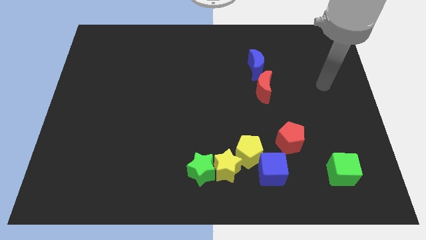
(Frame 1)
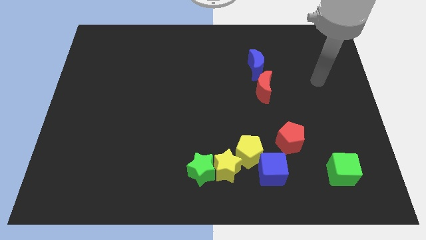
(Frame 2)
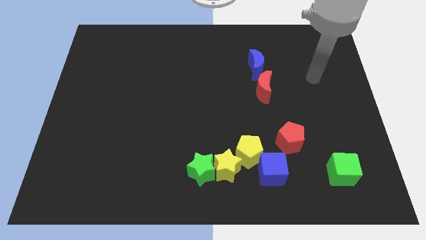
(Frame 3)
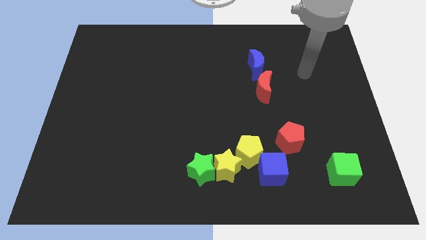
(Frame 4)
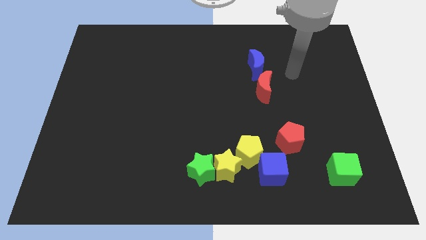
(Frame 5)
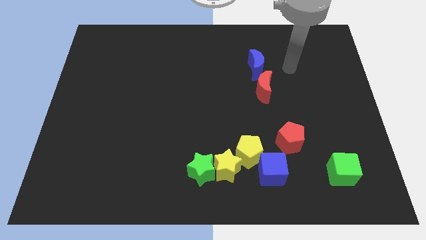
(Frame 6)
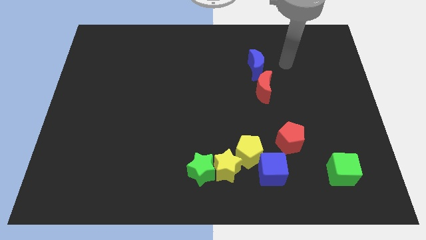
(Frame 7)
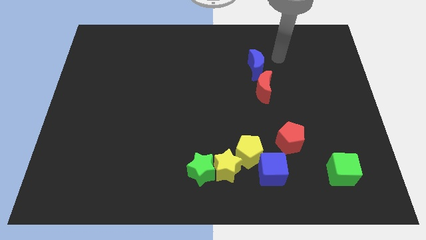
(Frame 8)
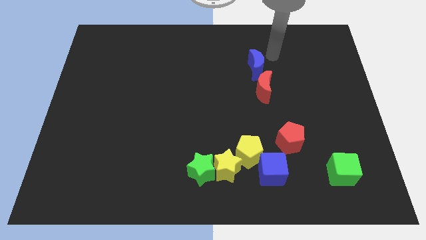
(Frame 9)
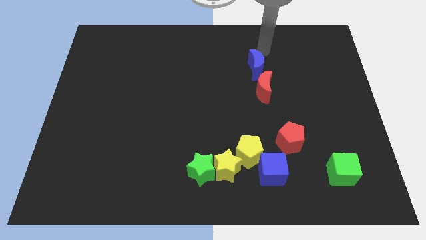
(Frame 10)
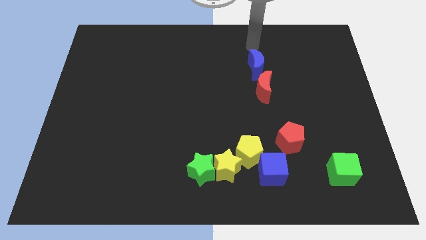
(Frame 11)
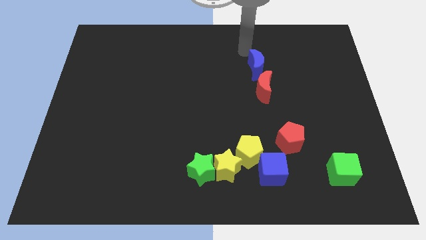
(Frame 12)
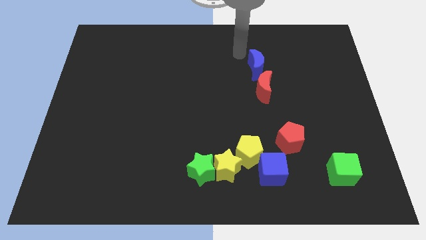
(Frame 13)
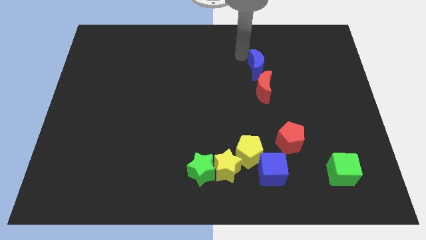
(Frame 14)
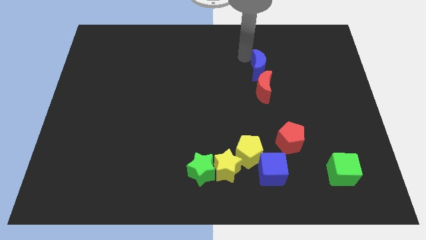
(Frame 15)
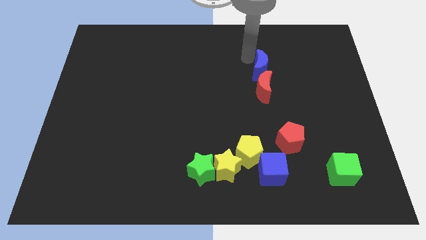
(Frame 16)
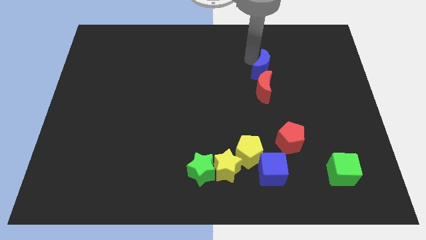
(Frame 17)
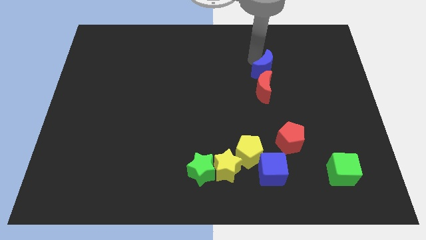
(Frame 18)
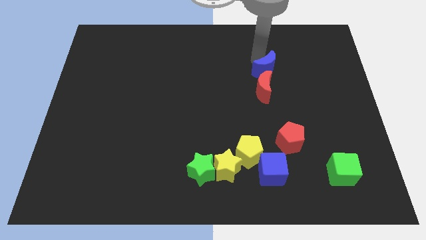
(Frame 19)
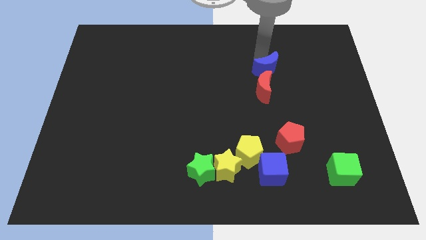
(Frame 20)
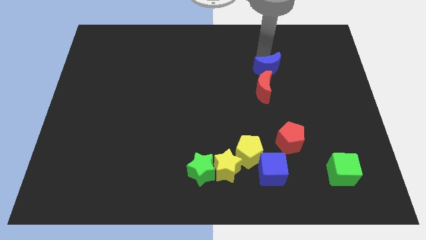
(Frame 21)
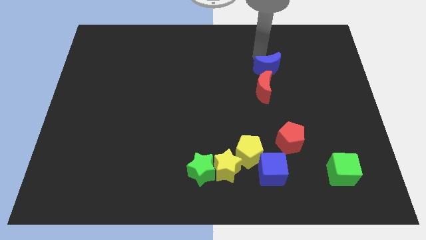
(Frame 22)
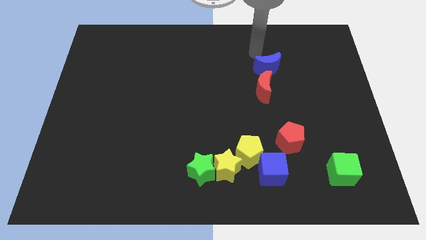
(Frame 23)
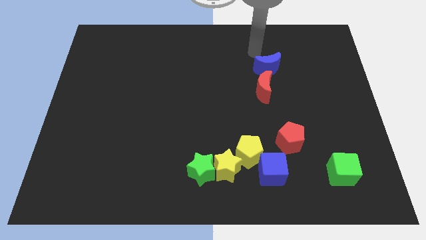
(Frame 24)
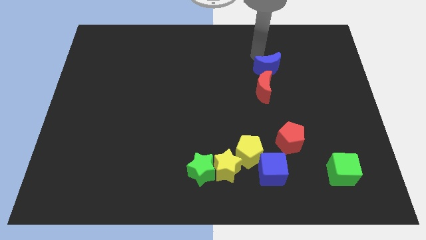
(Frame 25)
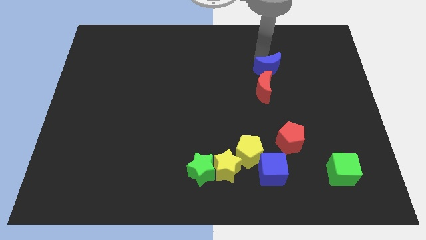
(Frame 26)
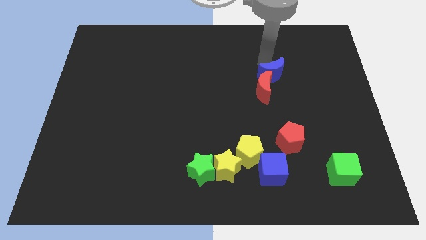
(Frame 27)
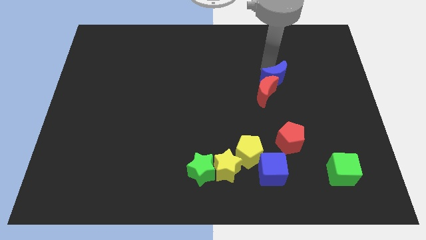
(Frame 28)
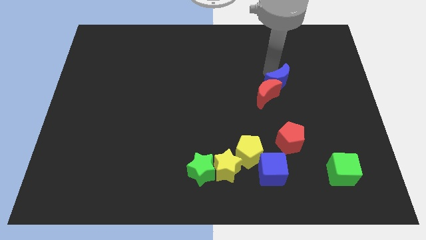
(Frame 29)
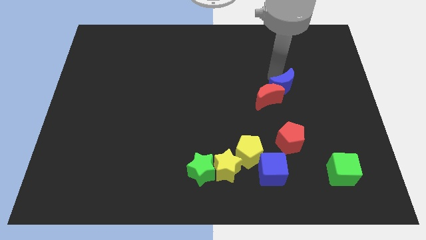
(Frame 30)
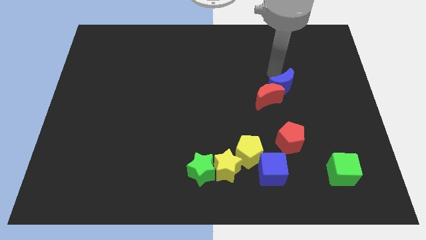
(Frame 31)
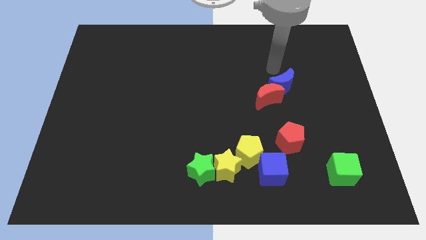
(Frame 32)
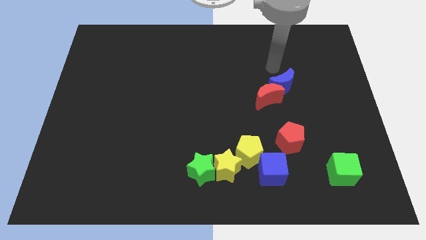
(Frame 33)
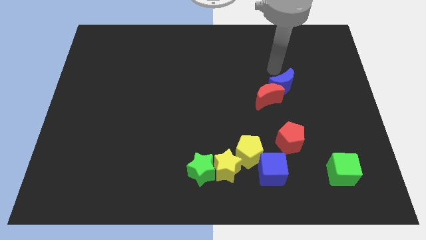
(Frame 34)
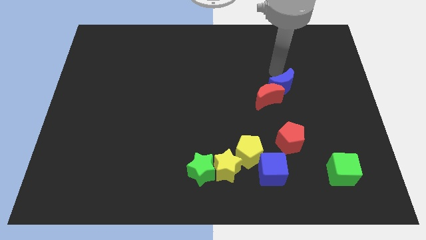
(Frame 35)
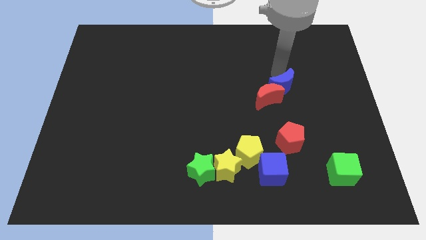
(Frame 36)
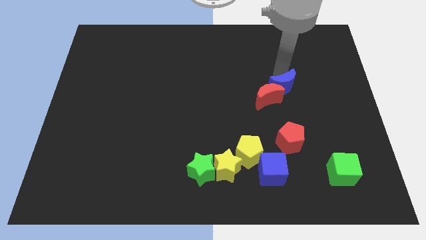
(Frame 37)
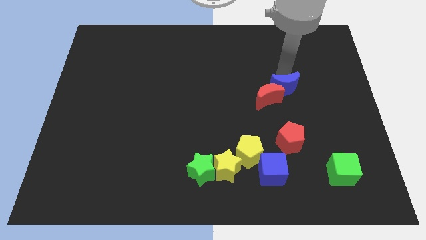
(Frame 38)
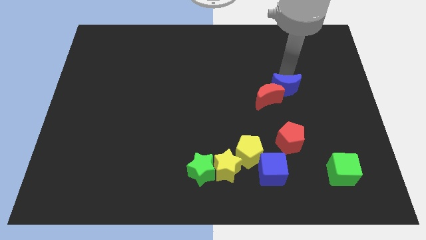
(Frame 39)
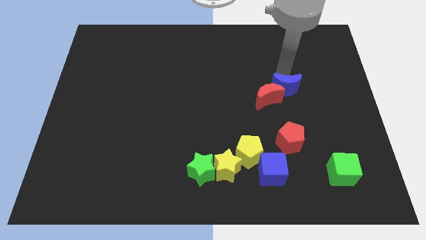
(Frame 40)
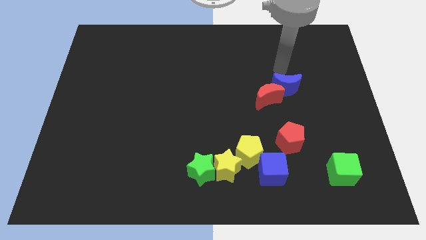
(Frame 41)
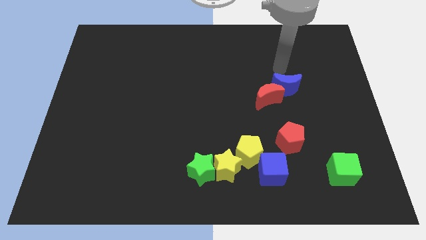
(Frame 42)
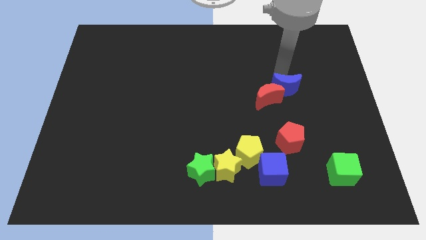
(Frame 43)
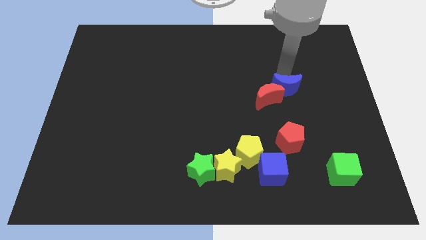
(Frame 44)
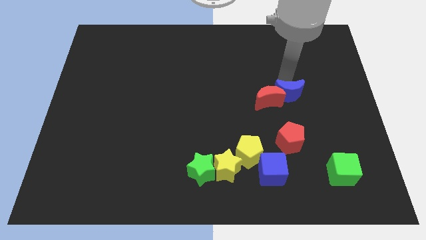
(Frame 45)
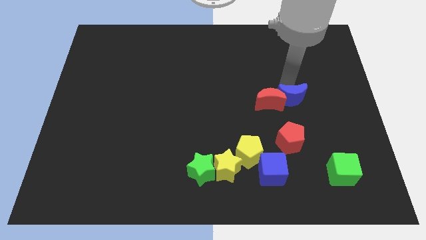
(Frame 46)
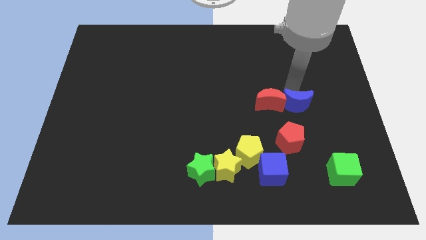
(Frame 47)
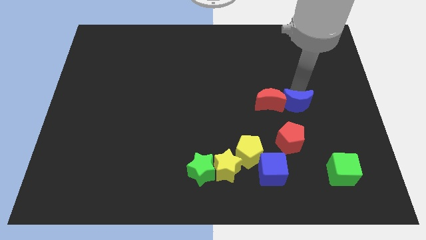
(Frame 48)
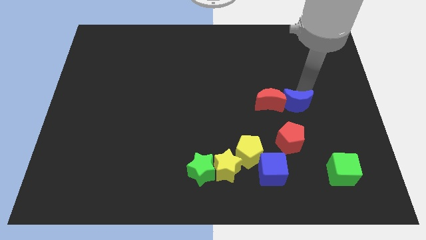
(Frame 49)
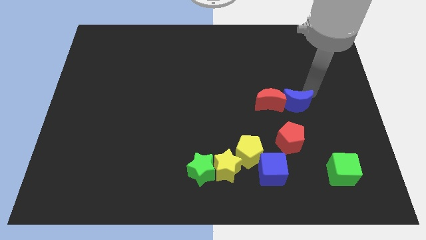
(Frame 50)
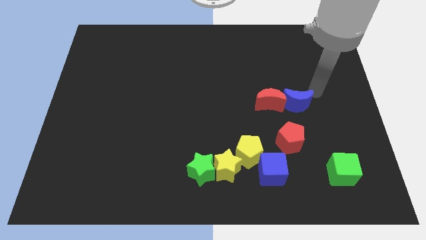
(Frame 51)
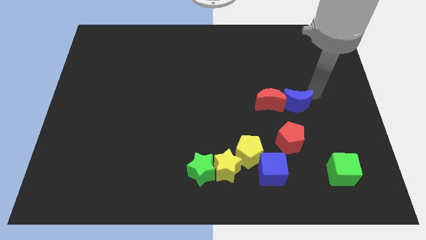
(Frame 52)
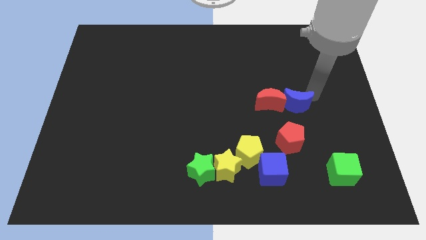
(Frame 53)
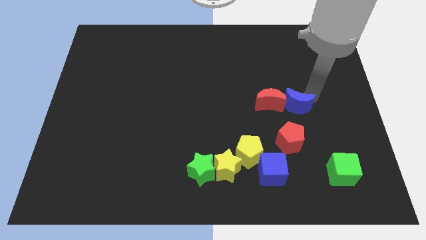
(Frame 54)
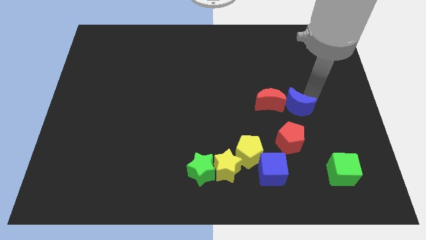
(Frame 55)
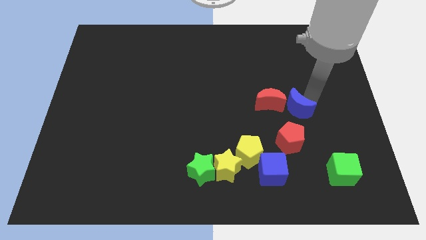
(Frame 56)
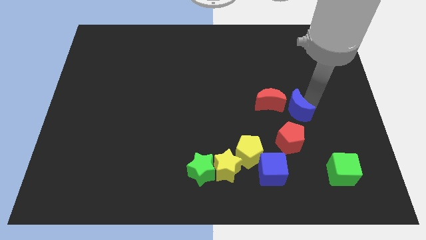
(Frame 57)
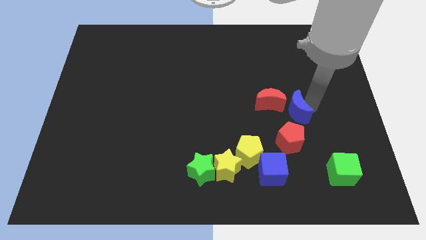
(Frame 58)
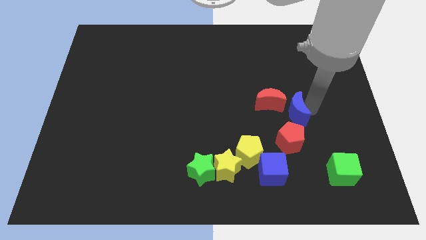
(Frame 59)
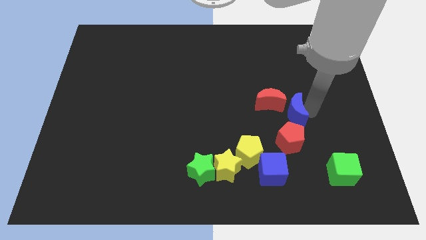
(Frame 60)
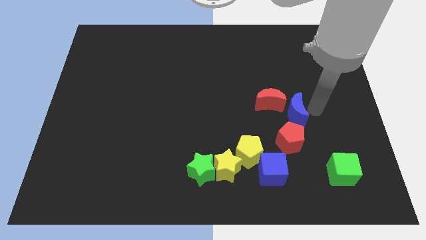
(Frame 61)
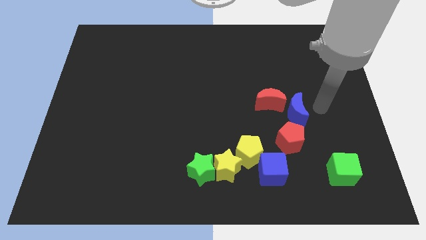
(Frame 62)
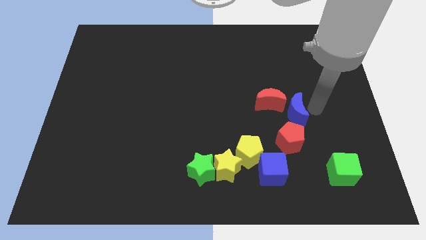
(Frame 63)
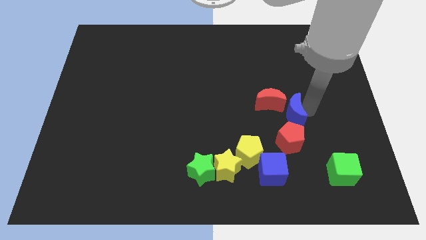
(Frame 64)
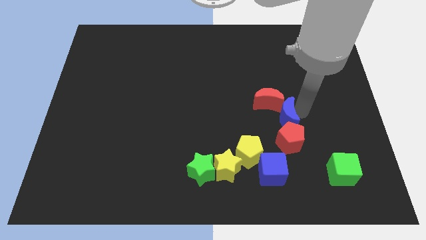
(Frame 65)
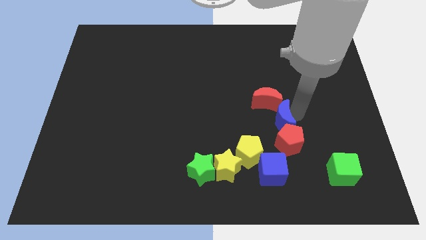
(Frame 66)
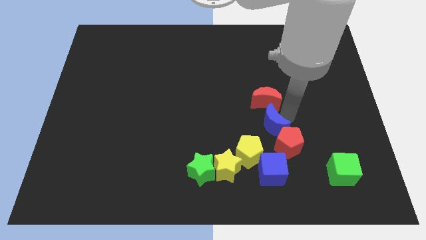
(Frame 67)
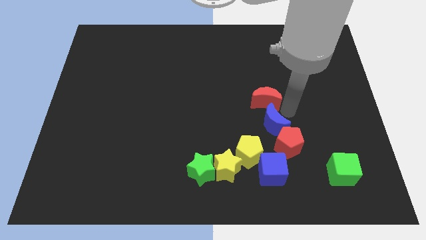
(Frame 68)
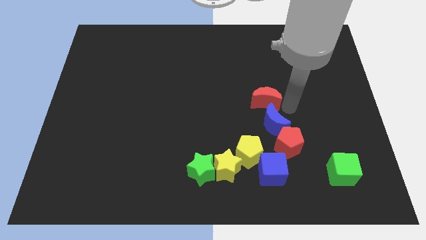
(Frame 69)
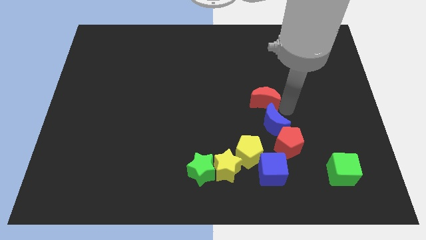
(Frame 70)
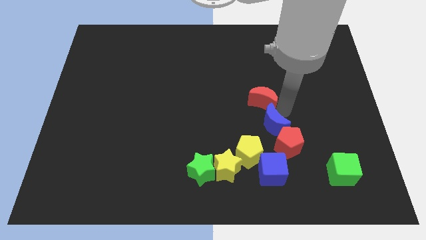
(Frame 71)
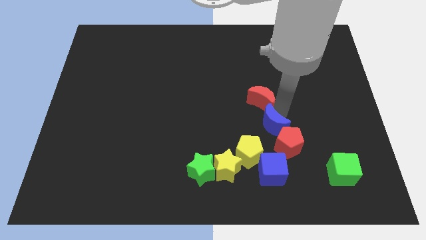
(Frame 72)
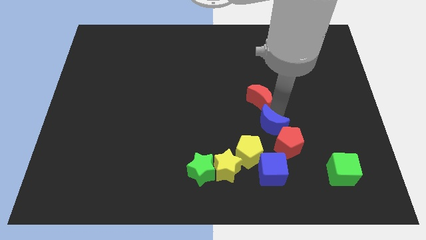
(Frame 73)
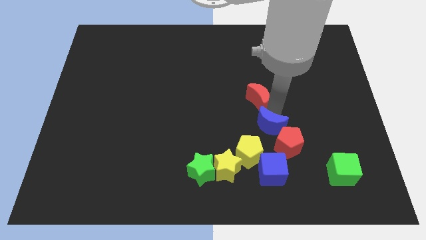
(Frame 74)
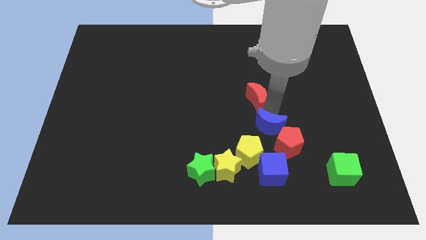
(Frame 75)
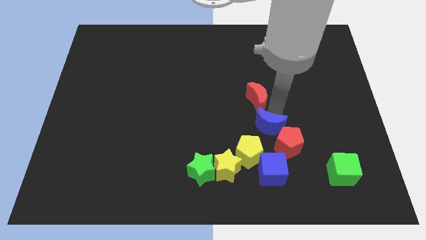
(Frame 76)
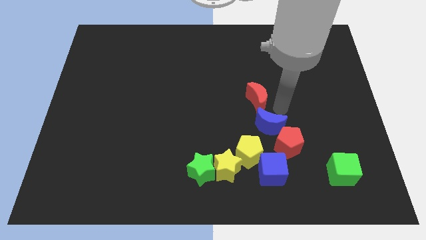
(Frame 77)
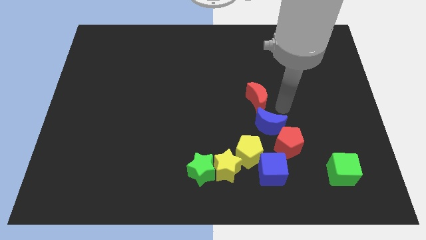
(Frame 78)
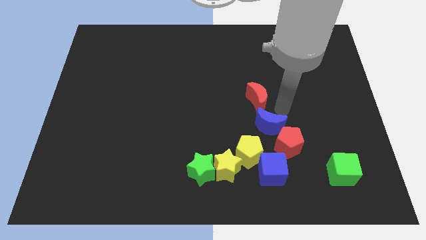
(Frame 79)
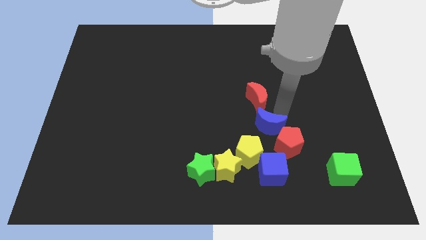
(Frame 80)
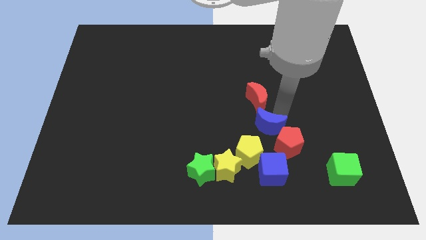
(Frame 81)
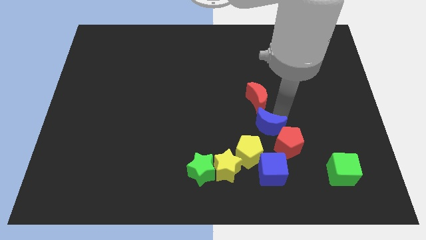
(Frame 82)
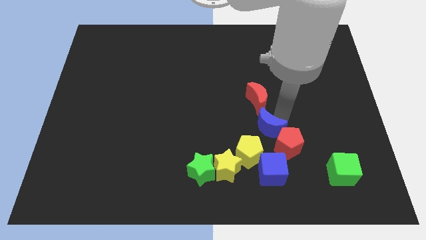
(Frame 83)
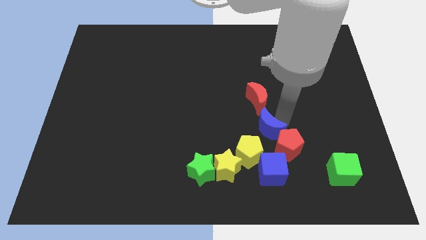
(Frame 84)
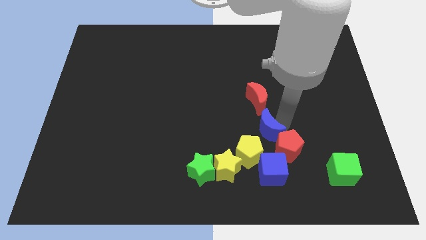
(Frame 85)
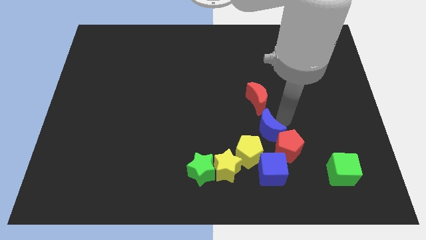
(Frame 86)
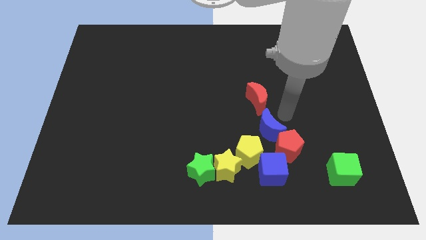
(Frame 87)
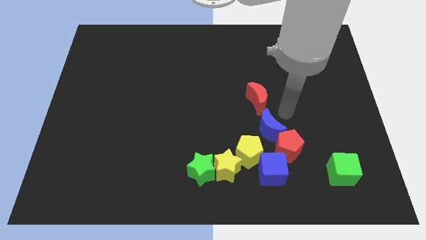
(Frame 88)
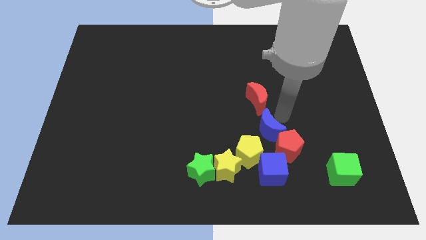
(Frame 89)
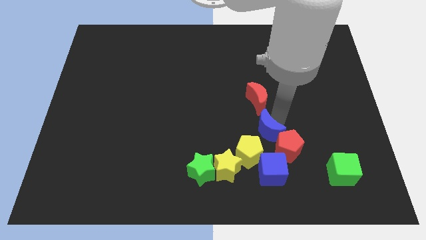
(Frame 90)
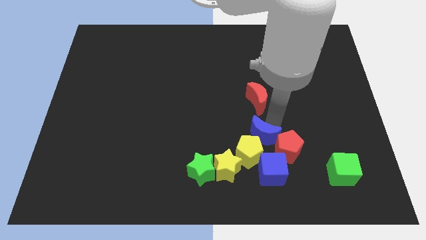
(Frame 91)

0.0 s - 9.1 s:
push the blue moon to the top right side of the yellow star
